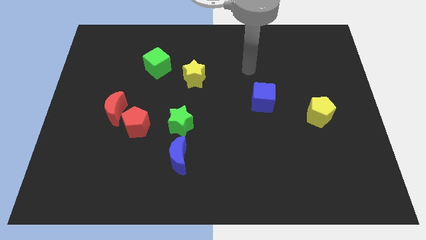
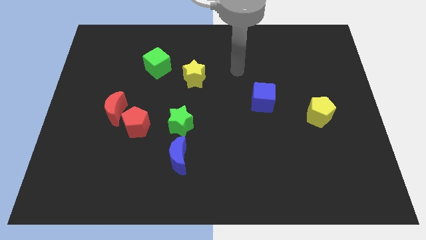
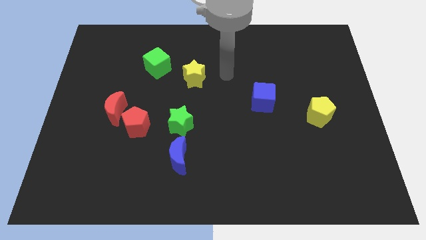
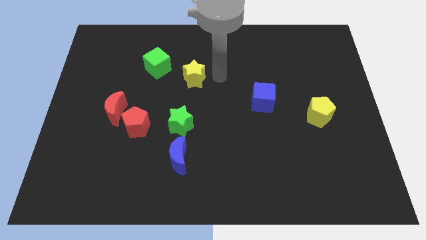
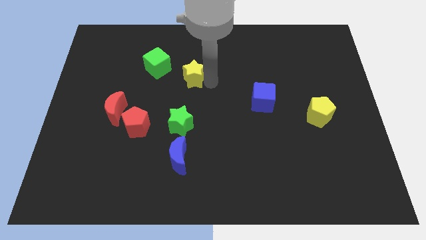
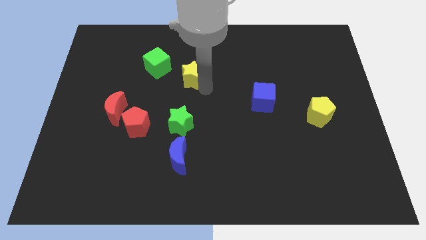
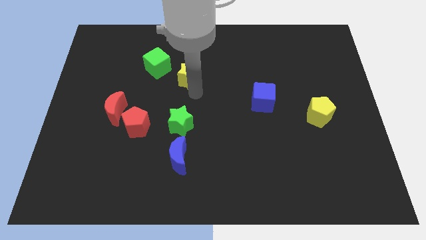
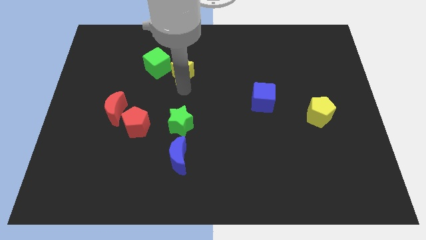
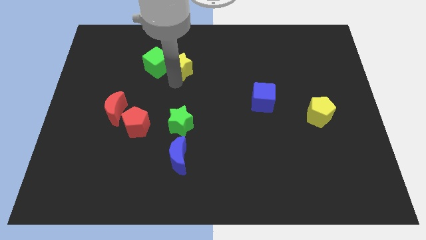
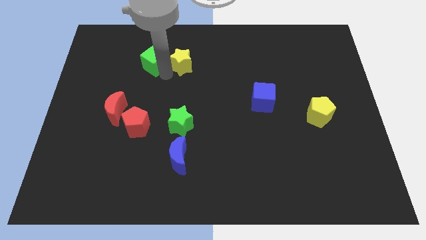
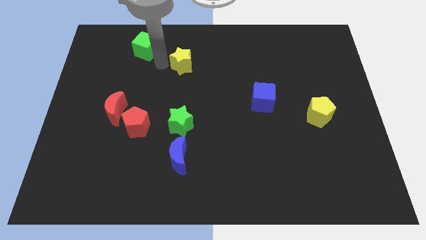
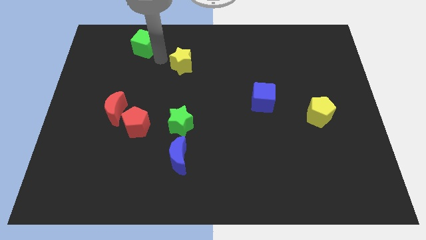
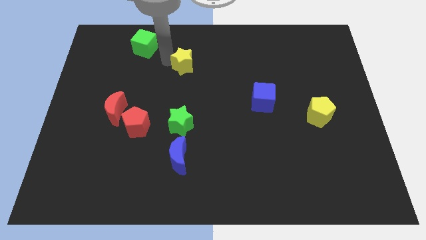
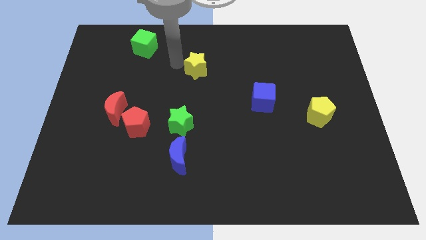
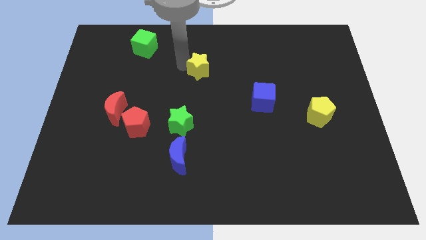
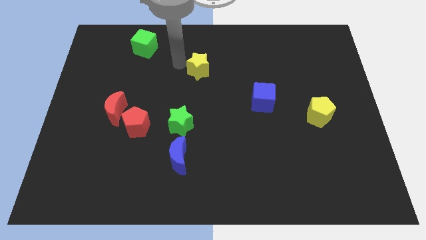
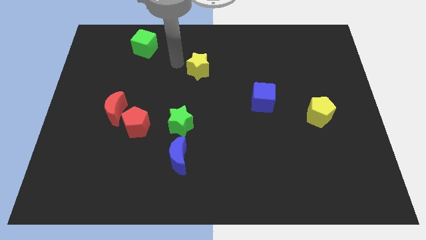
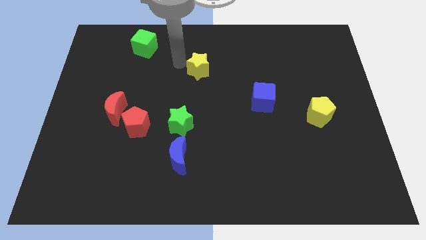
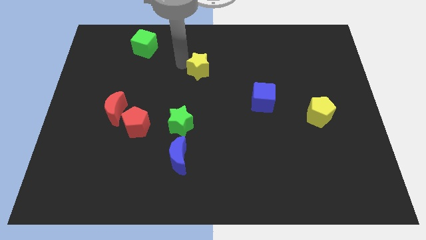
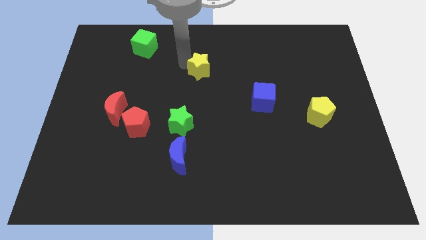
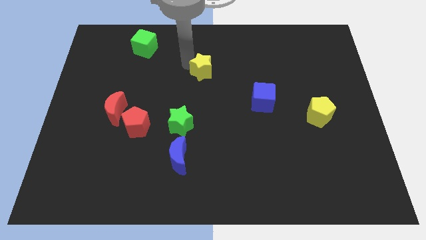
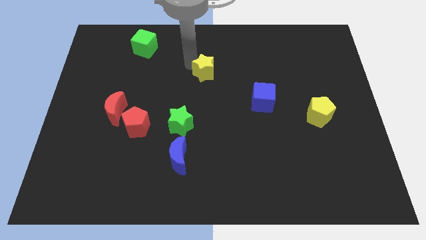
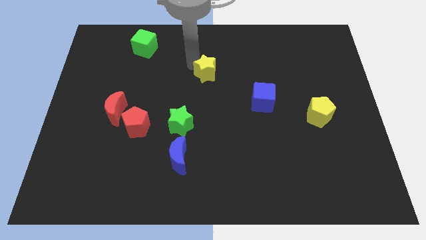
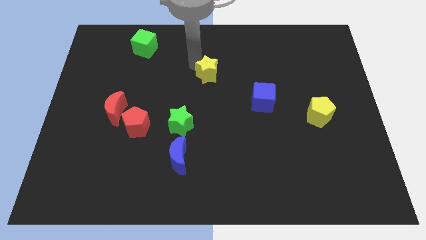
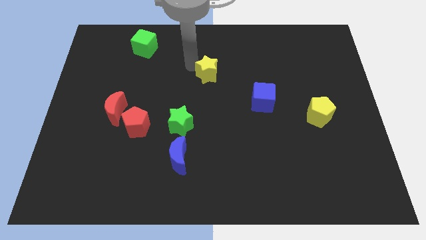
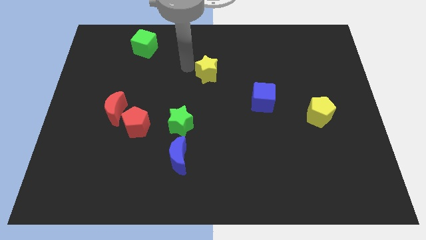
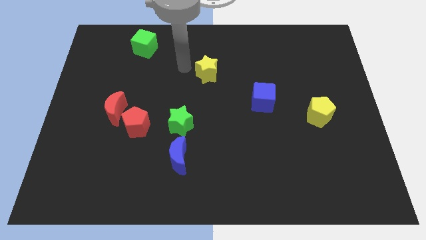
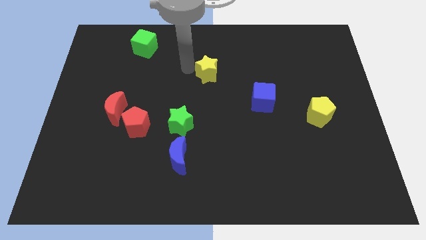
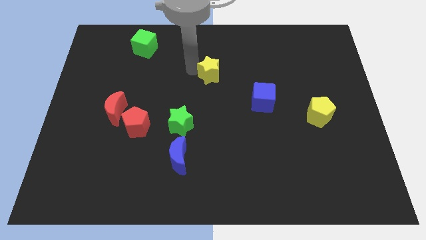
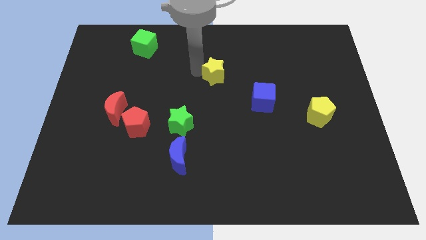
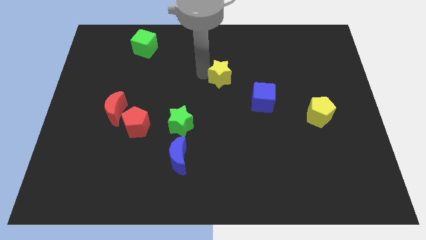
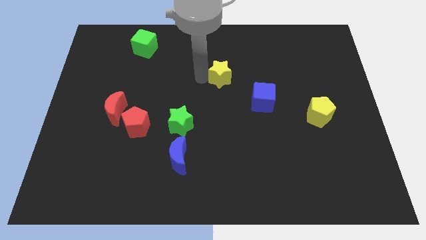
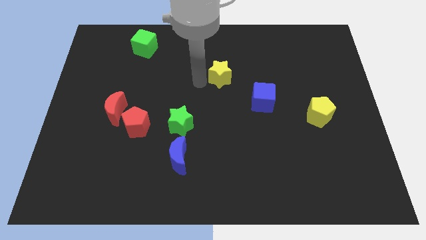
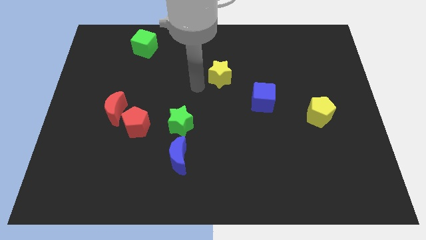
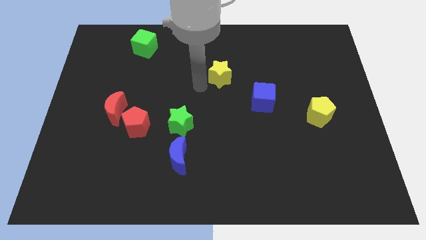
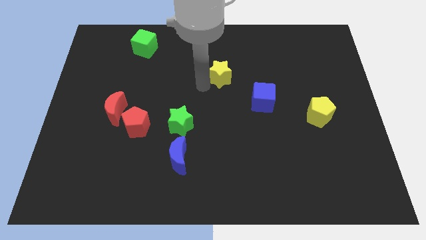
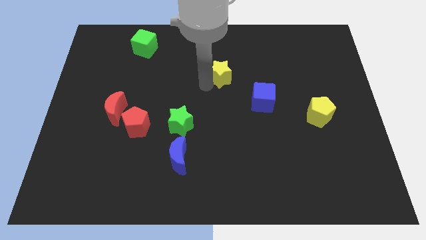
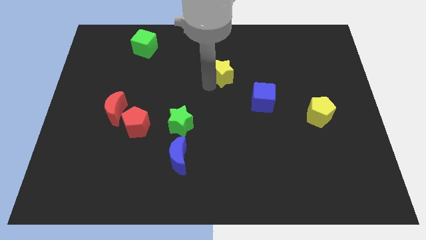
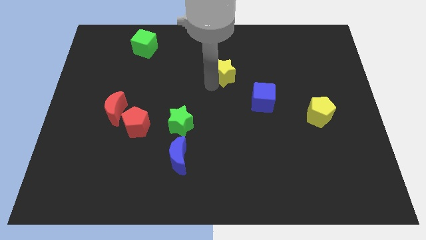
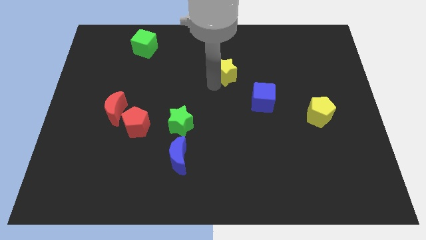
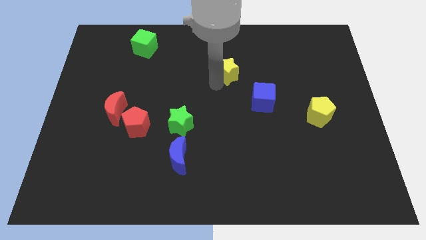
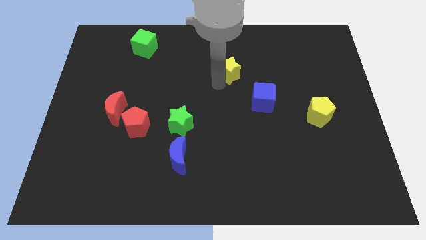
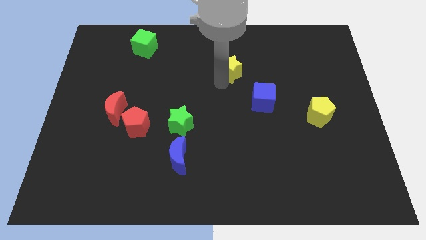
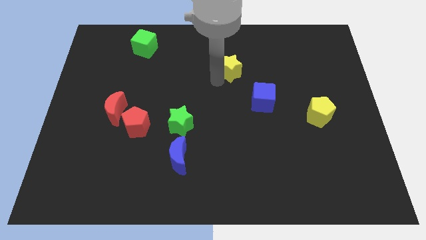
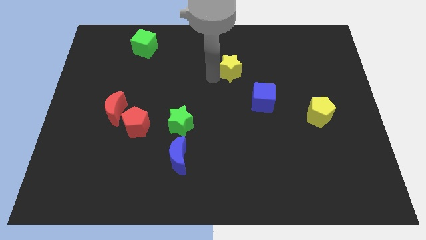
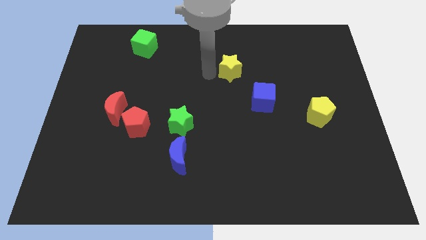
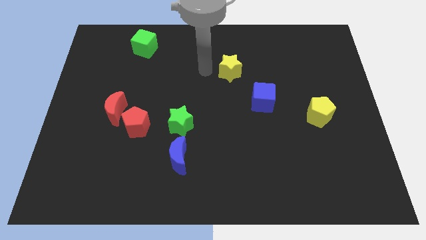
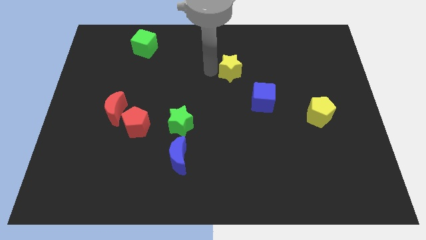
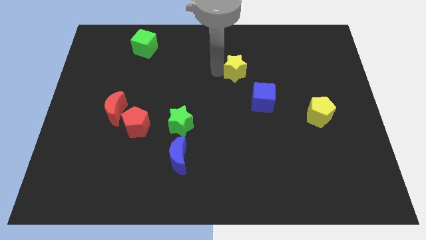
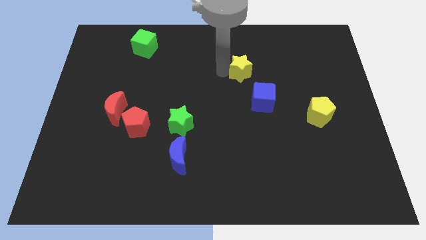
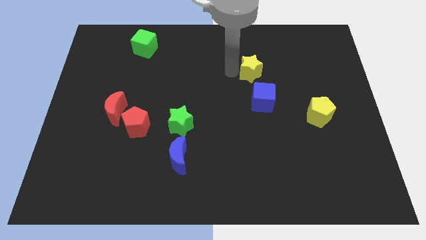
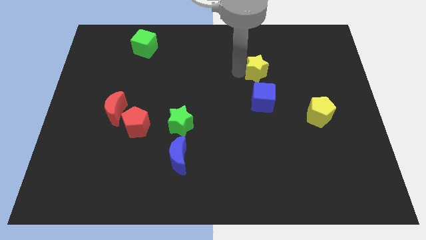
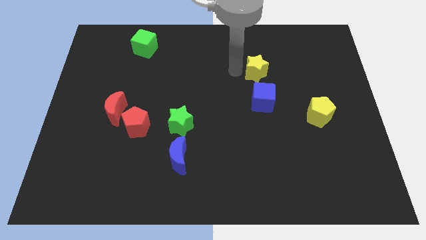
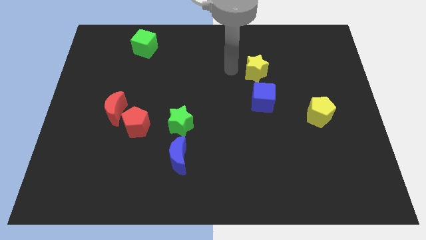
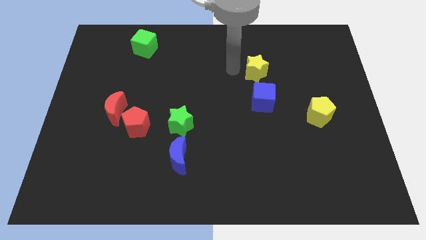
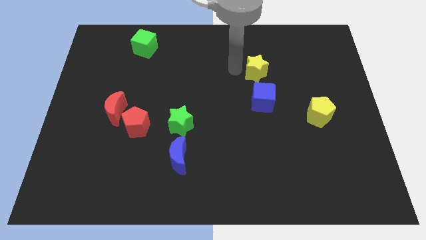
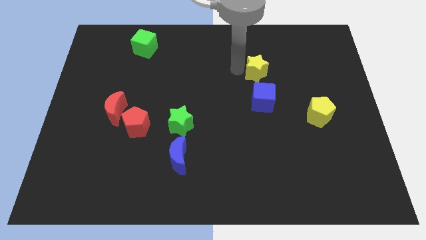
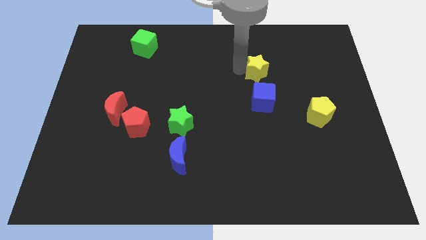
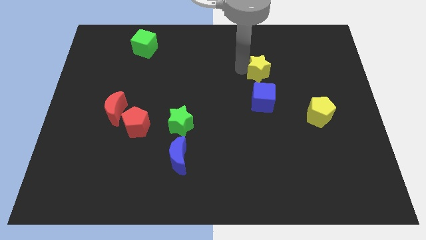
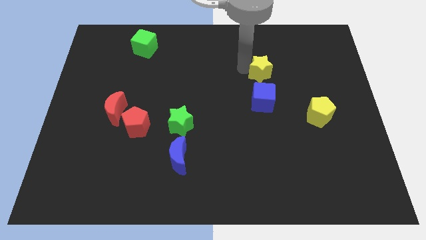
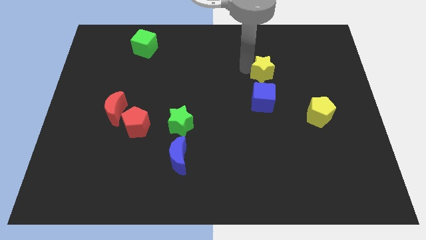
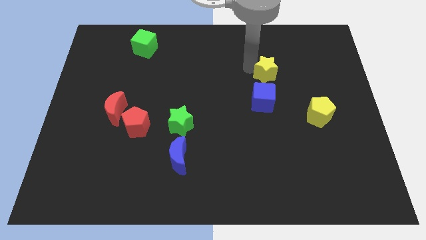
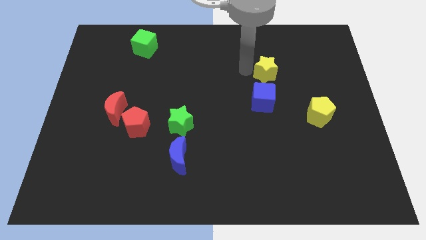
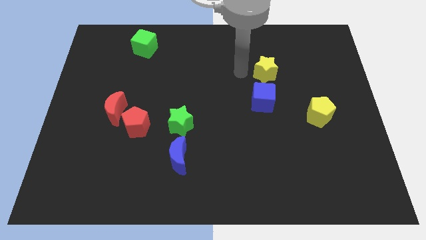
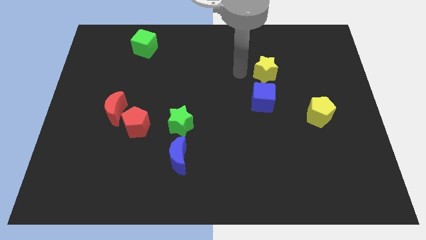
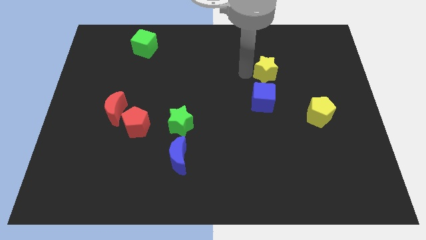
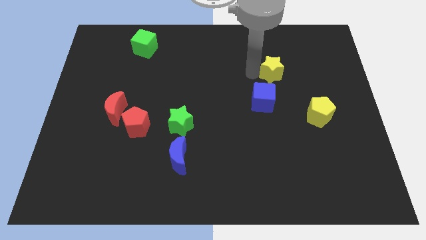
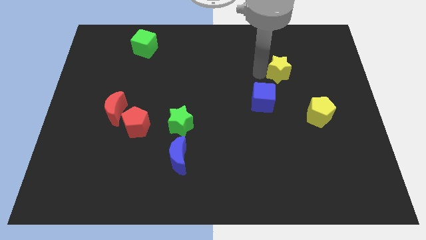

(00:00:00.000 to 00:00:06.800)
push the yellow star to the right

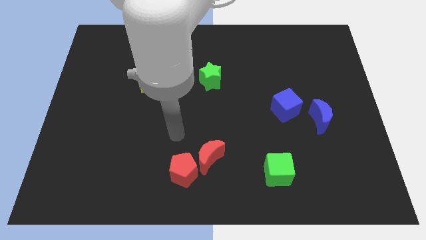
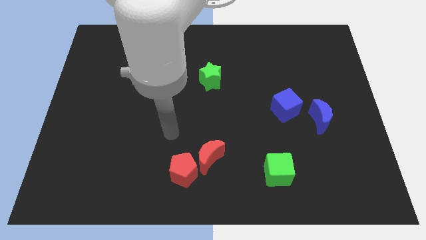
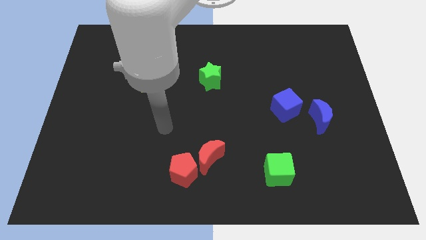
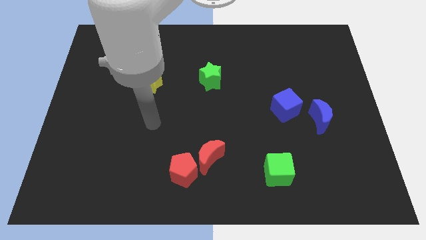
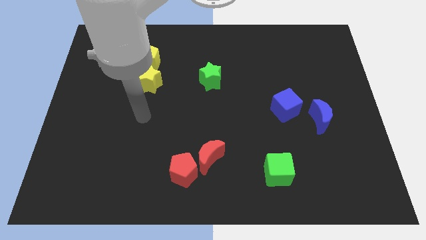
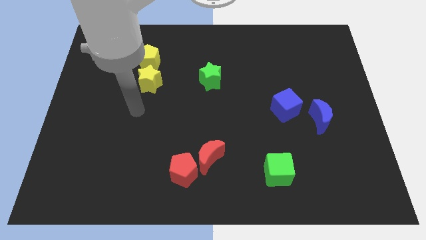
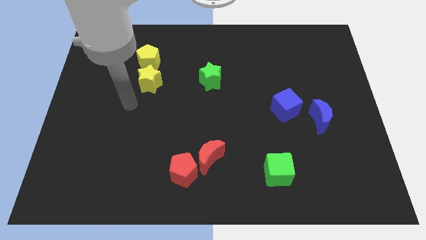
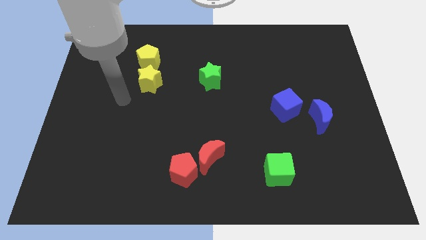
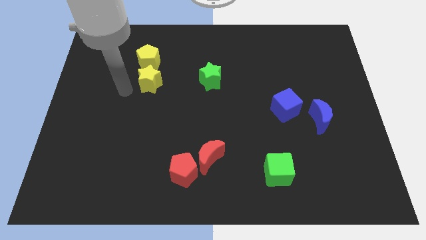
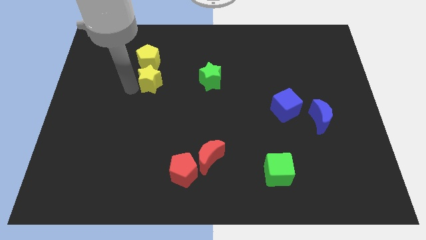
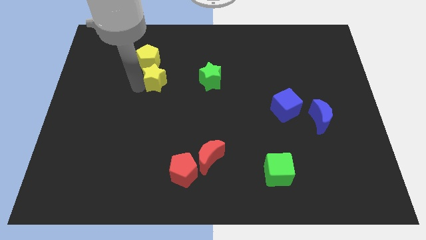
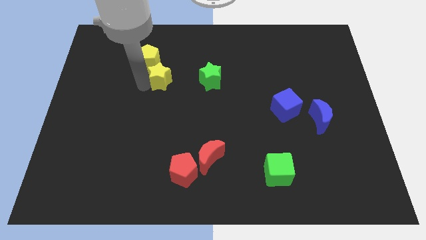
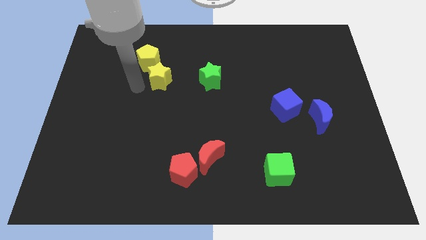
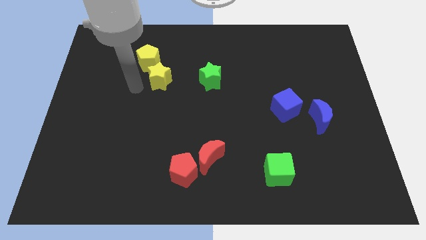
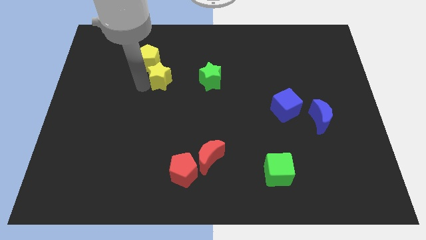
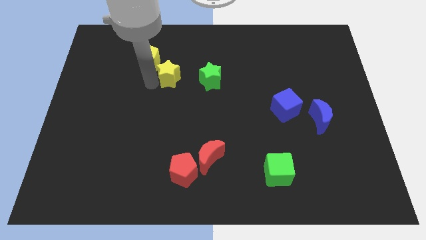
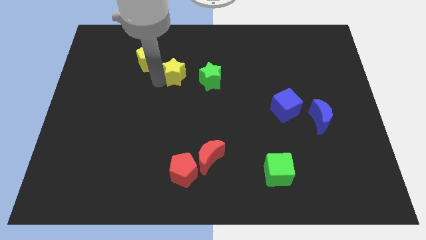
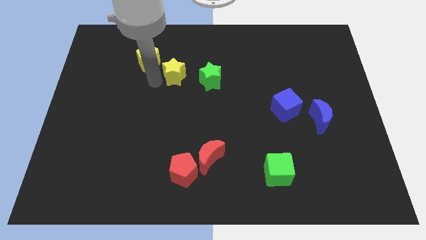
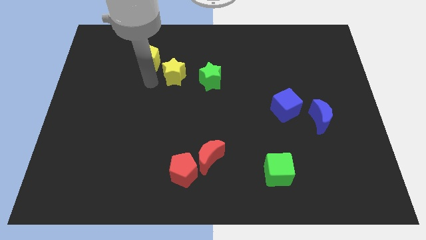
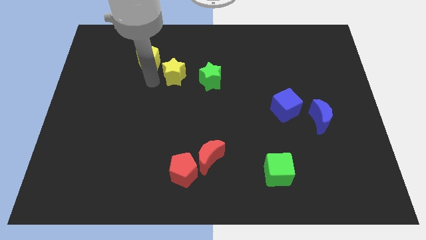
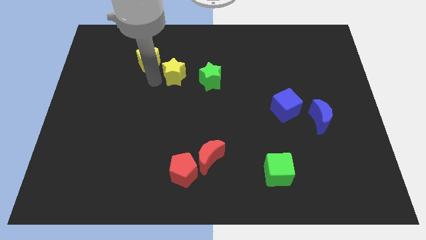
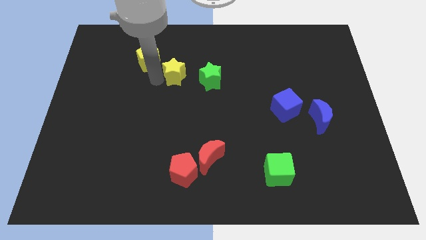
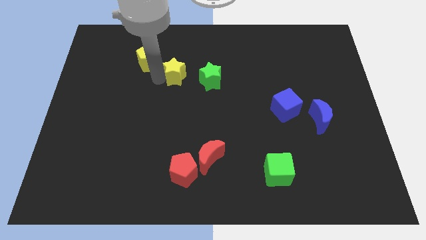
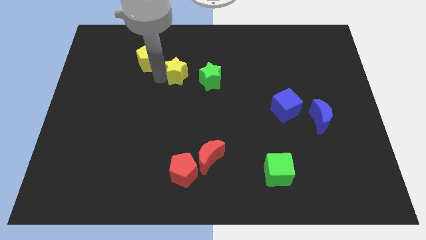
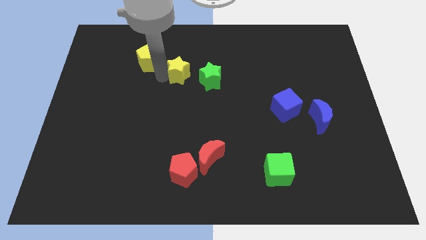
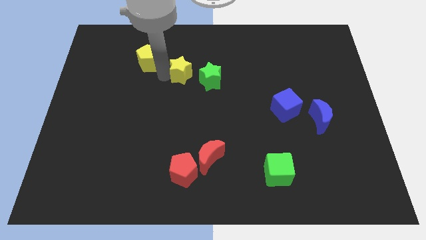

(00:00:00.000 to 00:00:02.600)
move the yellow star a little bit right
